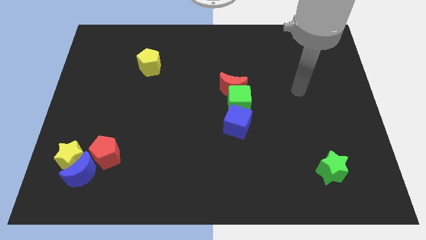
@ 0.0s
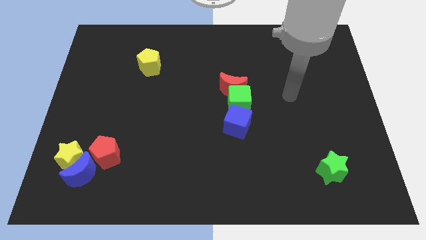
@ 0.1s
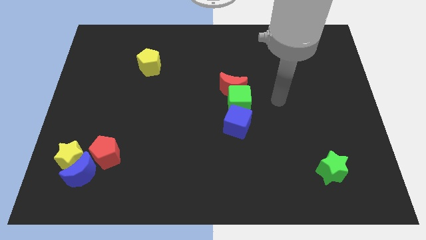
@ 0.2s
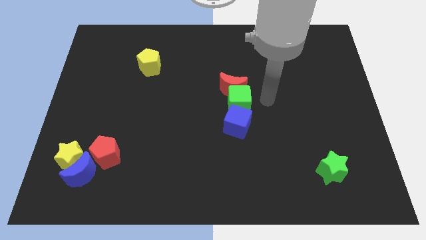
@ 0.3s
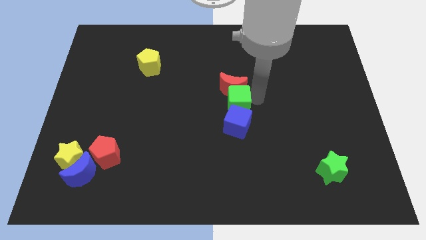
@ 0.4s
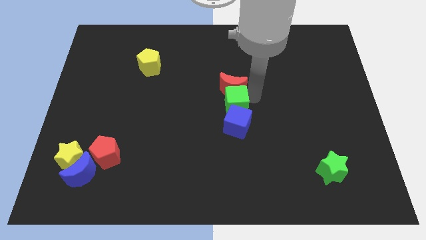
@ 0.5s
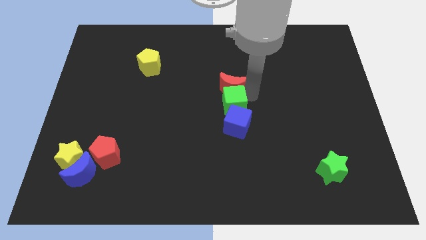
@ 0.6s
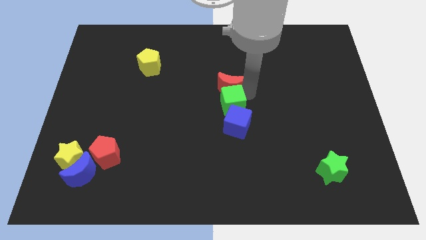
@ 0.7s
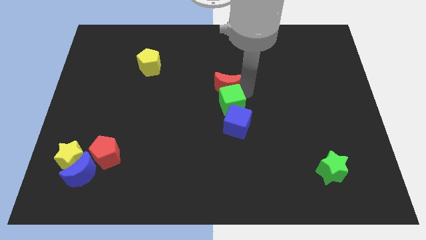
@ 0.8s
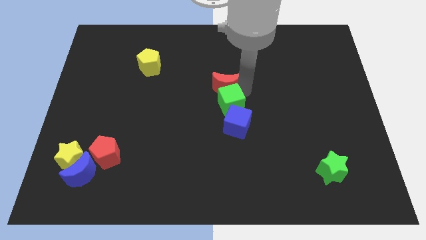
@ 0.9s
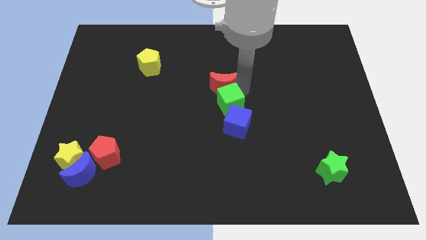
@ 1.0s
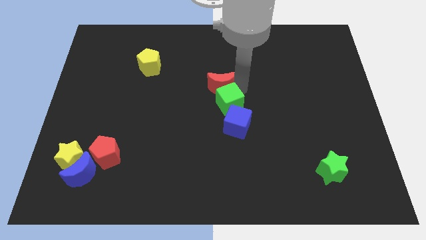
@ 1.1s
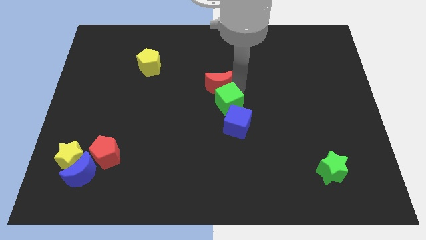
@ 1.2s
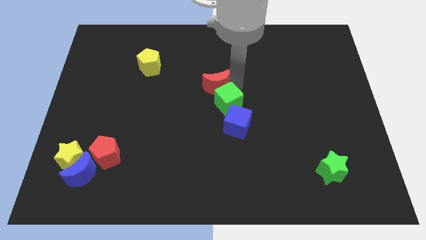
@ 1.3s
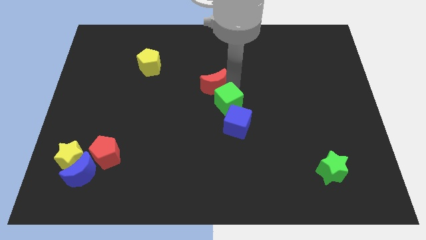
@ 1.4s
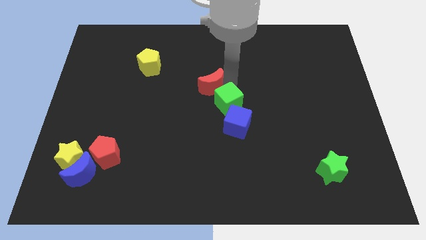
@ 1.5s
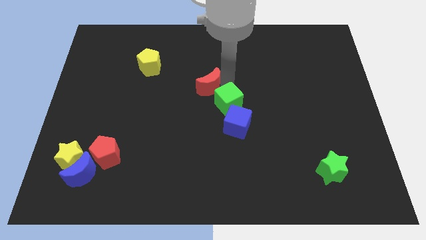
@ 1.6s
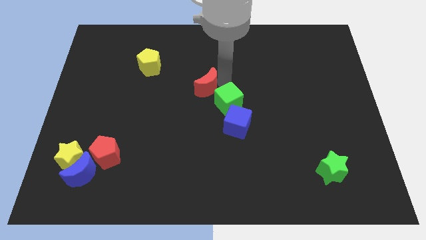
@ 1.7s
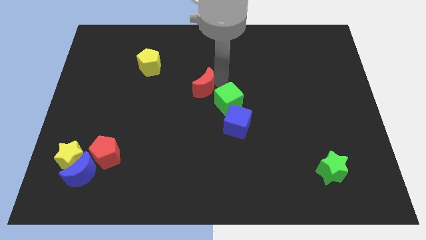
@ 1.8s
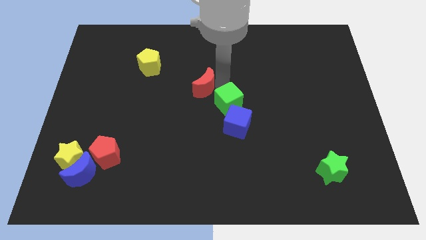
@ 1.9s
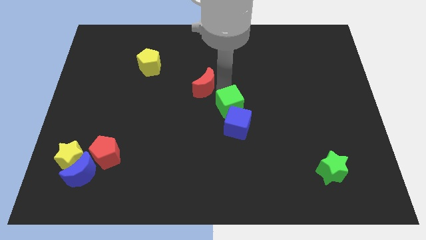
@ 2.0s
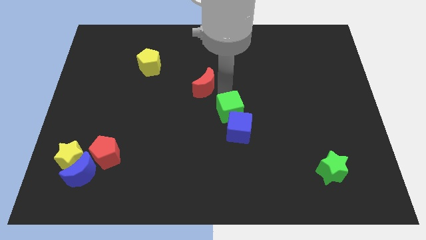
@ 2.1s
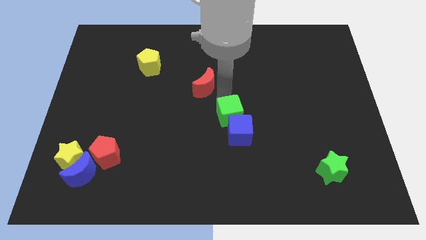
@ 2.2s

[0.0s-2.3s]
separate the red moon from the green cube

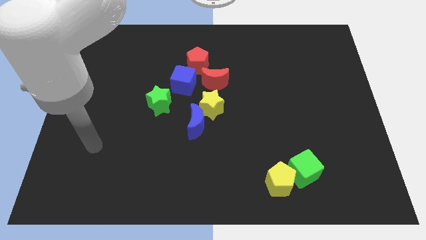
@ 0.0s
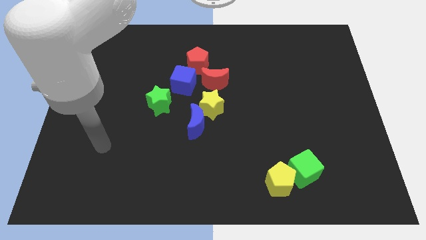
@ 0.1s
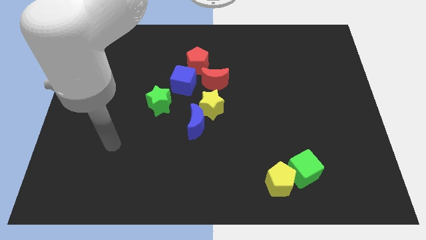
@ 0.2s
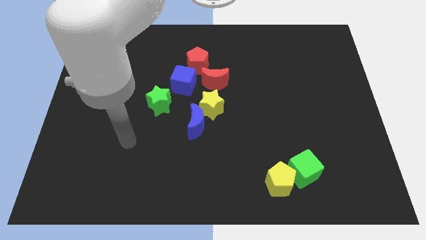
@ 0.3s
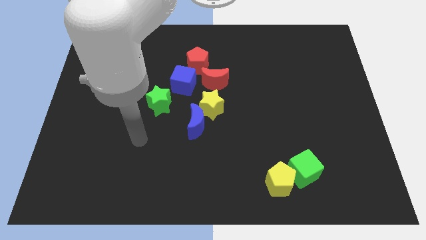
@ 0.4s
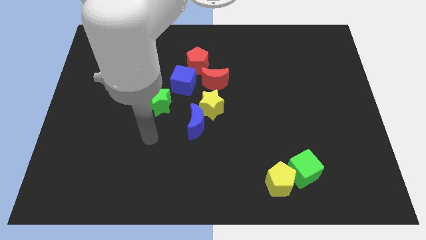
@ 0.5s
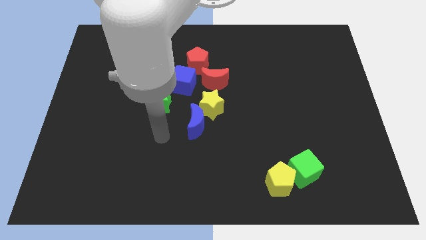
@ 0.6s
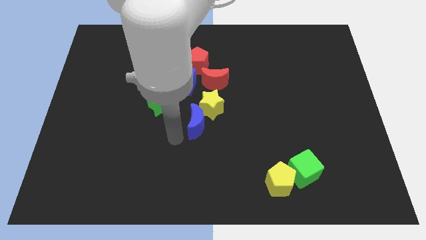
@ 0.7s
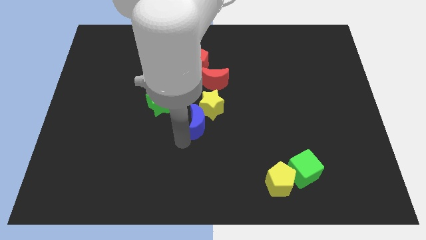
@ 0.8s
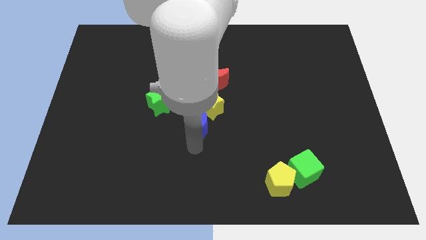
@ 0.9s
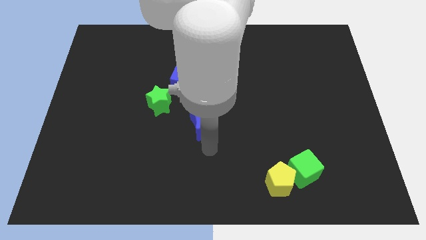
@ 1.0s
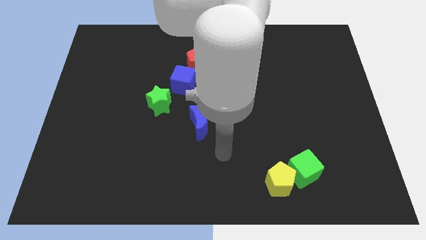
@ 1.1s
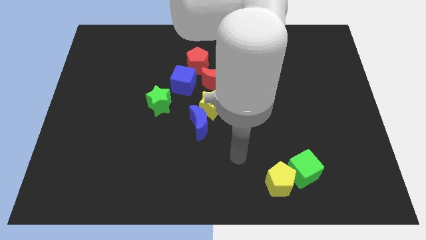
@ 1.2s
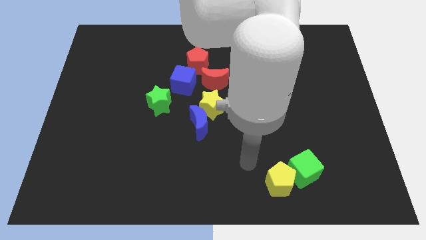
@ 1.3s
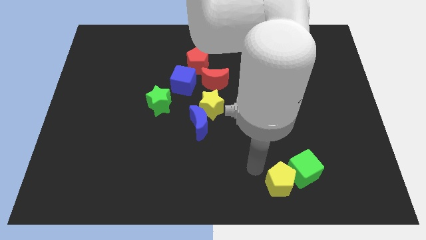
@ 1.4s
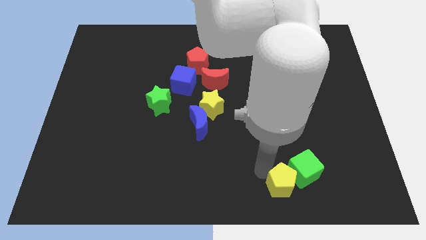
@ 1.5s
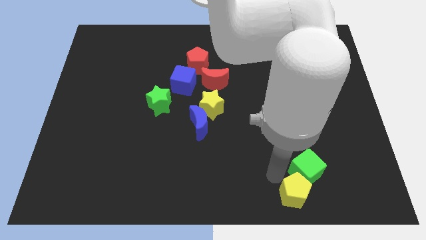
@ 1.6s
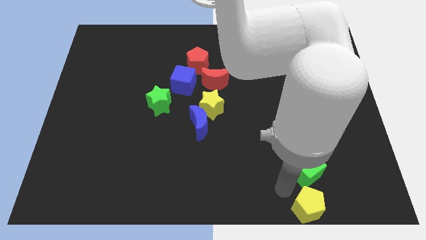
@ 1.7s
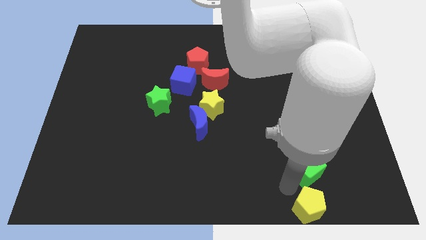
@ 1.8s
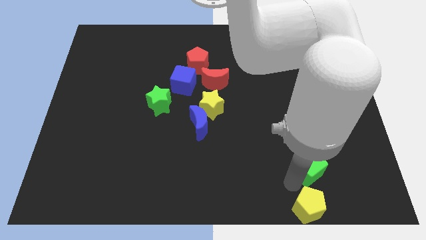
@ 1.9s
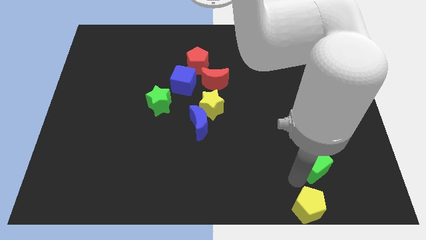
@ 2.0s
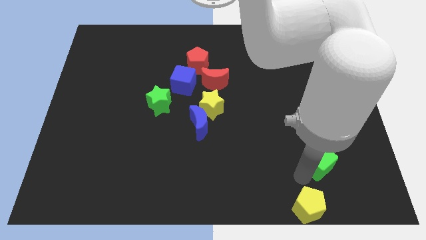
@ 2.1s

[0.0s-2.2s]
move the green cube away from the yellow pentagon

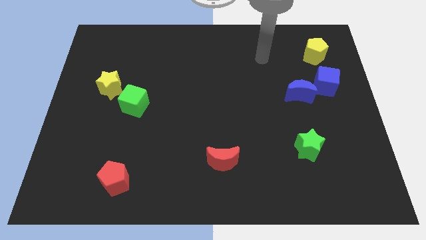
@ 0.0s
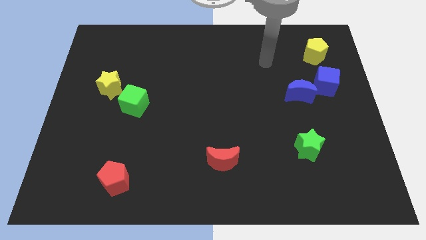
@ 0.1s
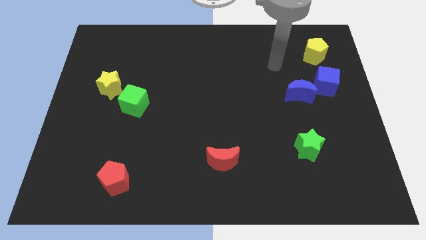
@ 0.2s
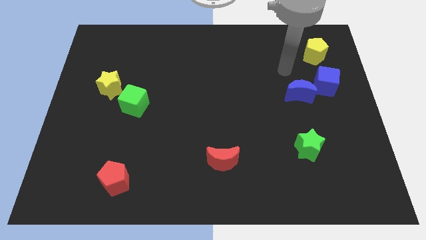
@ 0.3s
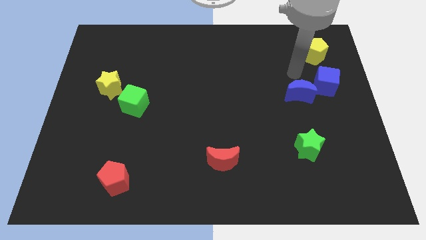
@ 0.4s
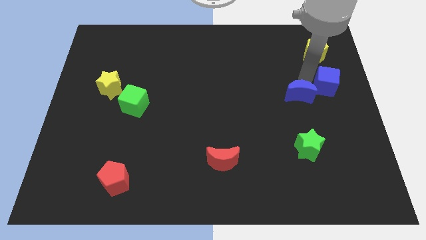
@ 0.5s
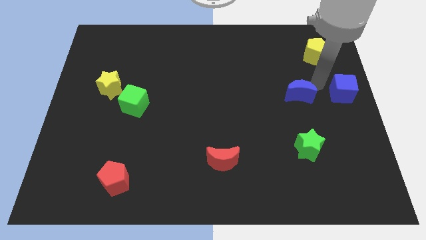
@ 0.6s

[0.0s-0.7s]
separate the blue moon from the blue cube

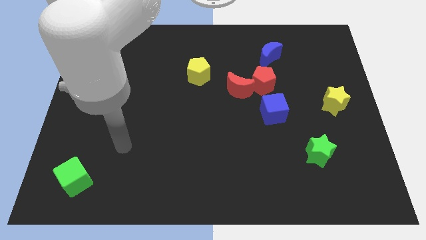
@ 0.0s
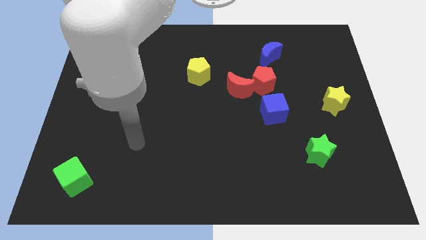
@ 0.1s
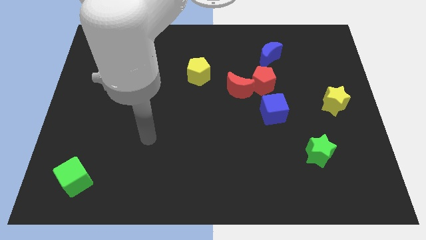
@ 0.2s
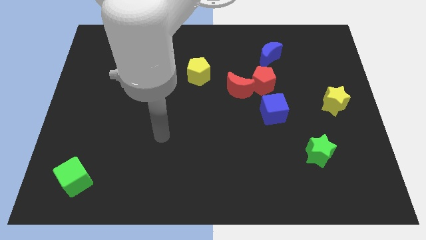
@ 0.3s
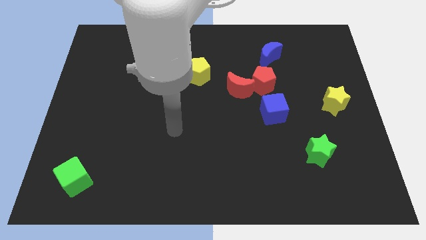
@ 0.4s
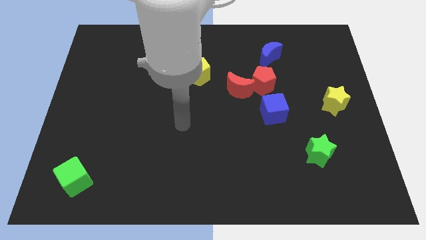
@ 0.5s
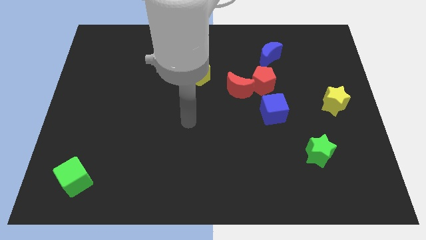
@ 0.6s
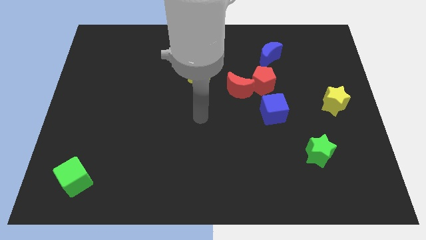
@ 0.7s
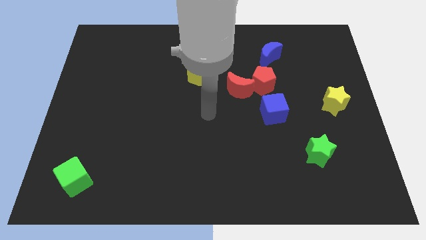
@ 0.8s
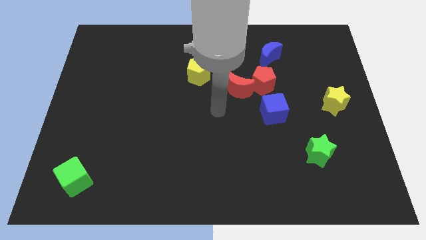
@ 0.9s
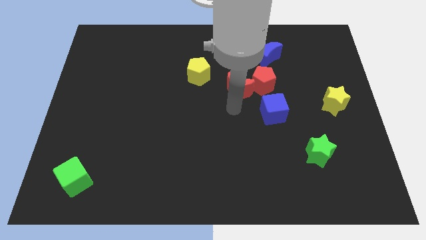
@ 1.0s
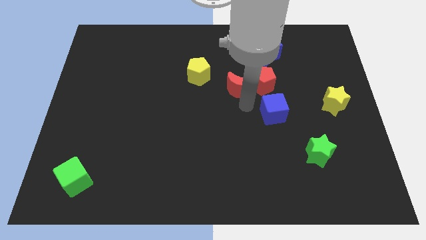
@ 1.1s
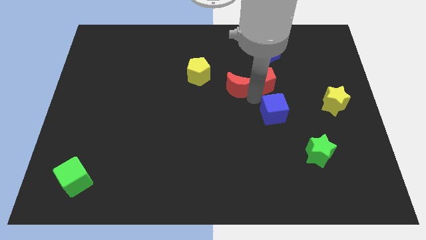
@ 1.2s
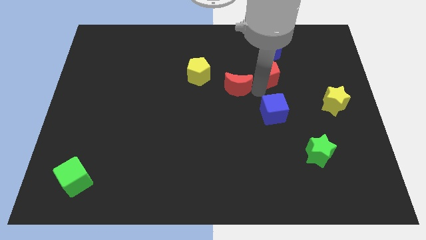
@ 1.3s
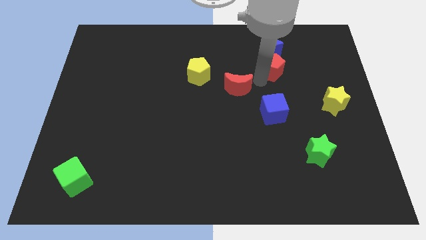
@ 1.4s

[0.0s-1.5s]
pull the red moon apart from the red pentagon

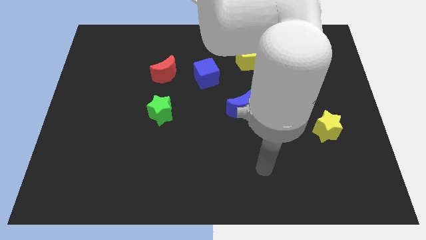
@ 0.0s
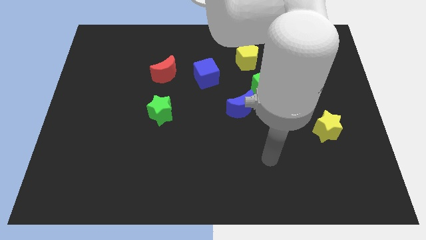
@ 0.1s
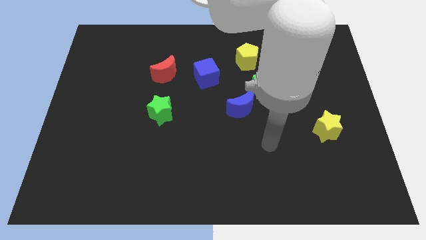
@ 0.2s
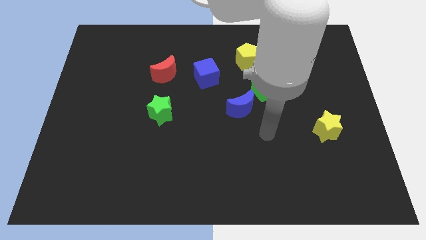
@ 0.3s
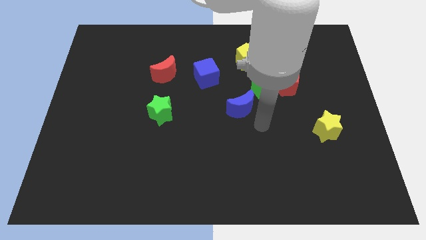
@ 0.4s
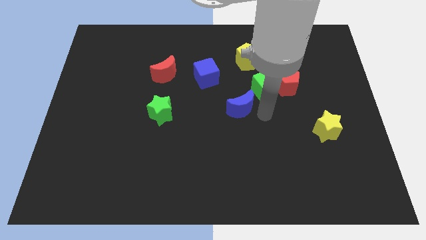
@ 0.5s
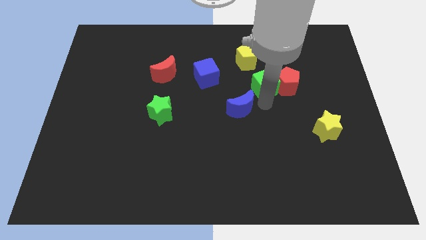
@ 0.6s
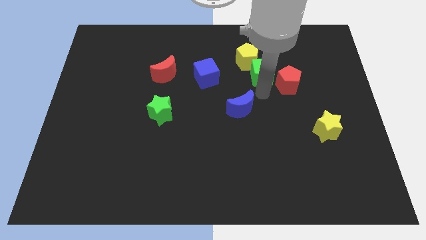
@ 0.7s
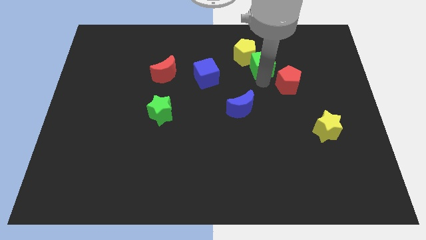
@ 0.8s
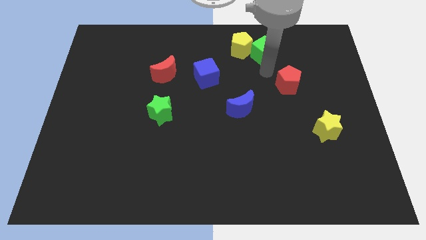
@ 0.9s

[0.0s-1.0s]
separate the red pentagon from the green cube

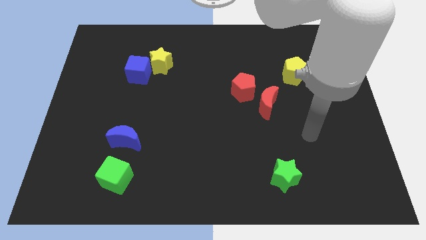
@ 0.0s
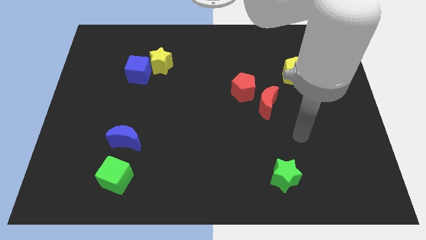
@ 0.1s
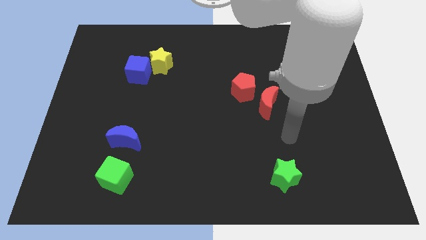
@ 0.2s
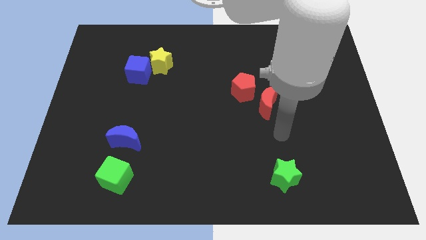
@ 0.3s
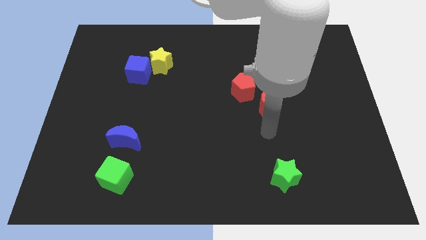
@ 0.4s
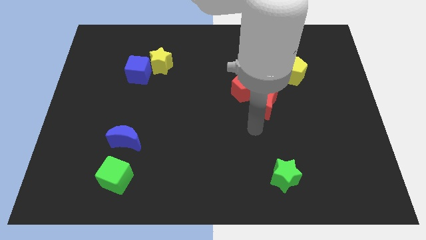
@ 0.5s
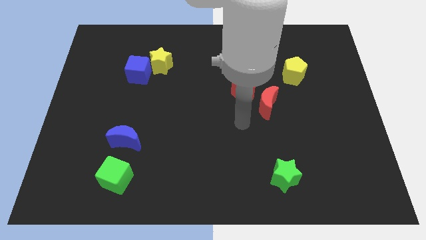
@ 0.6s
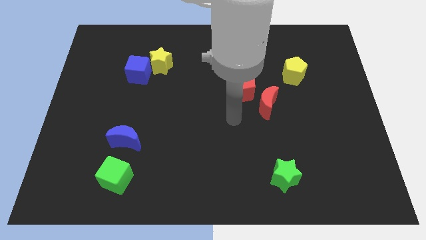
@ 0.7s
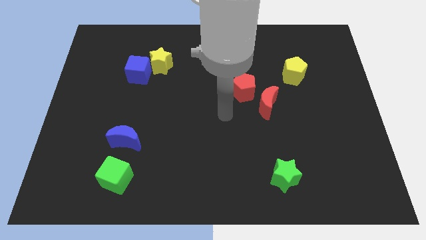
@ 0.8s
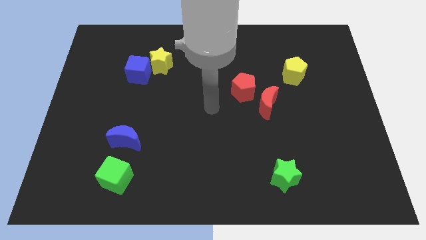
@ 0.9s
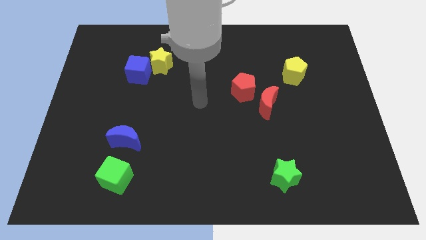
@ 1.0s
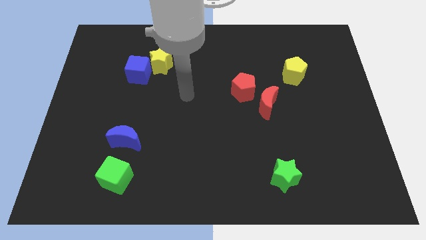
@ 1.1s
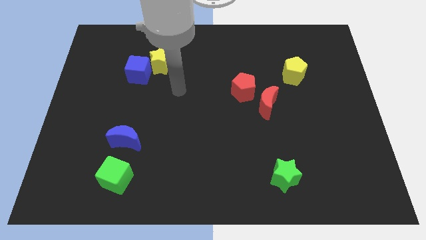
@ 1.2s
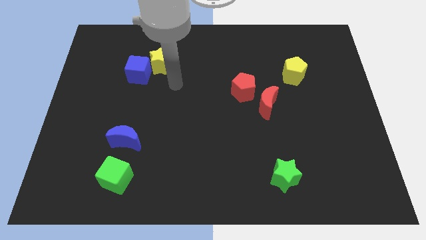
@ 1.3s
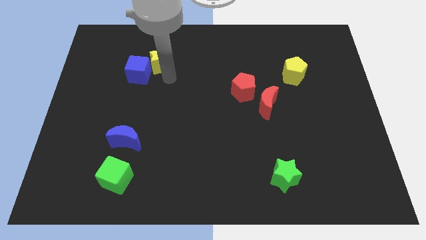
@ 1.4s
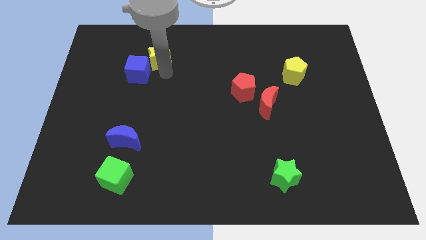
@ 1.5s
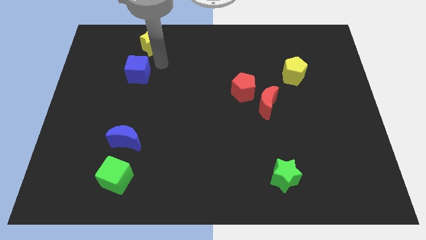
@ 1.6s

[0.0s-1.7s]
pull the blue cube apart from the yellow star
